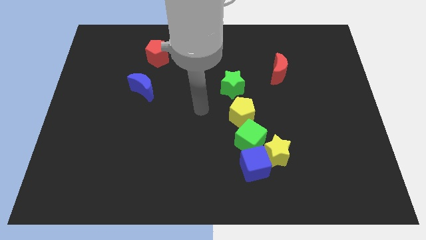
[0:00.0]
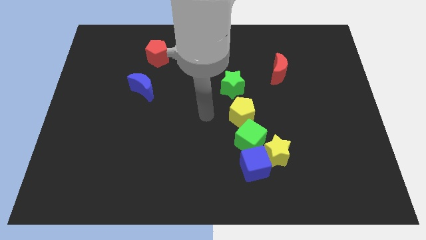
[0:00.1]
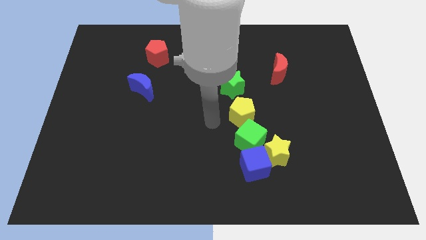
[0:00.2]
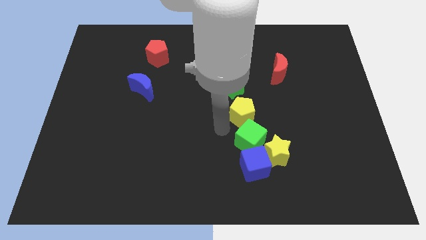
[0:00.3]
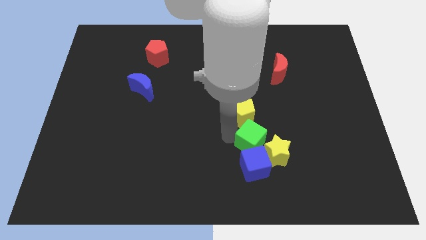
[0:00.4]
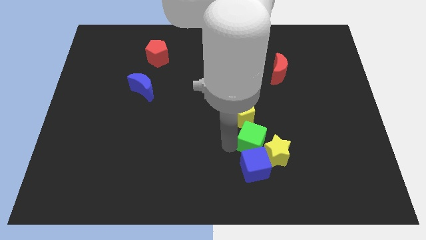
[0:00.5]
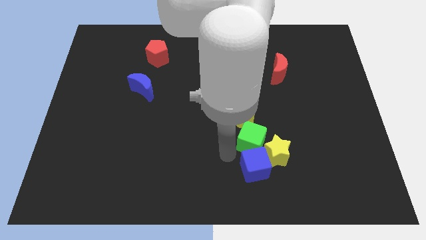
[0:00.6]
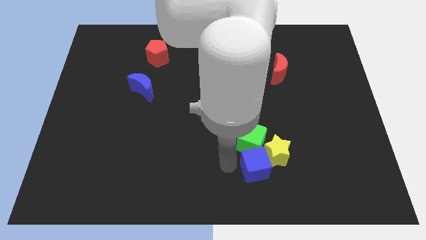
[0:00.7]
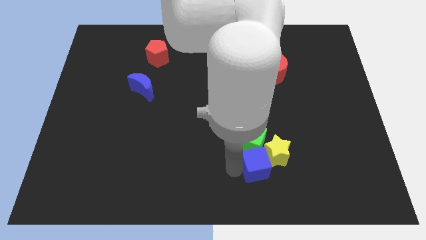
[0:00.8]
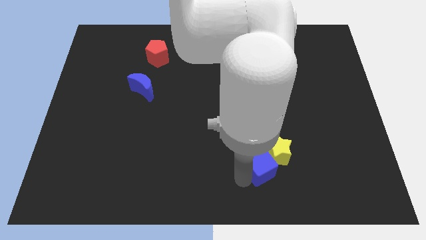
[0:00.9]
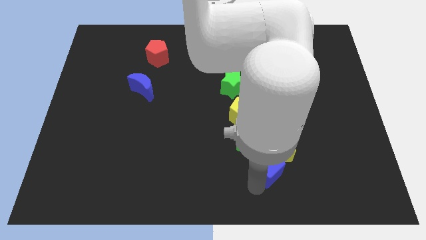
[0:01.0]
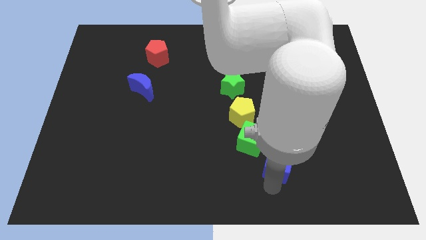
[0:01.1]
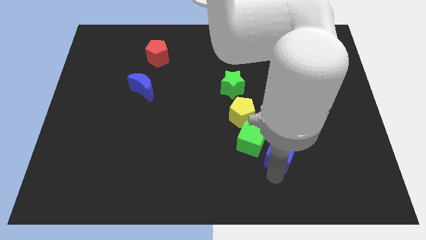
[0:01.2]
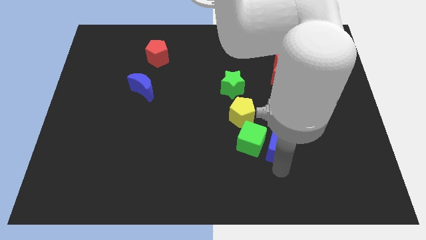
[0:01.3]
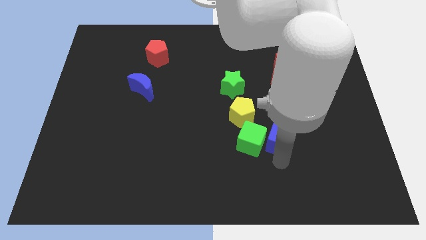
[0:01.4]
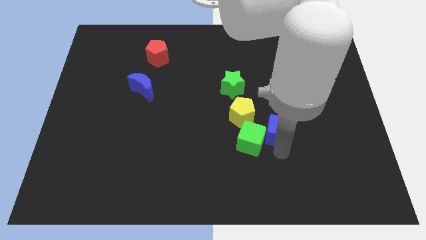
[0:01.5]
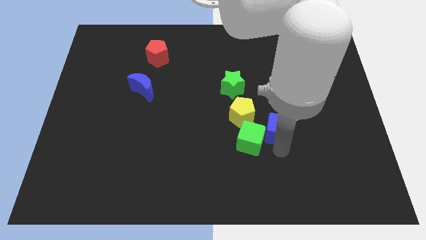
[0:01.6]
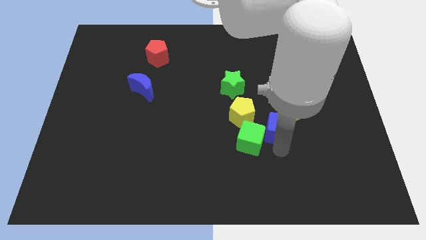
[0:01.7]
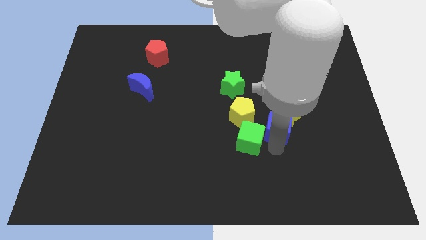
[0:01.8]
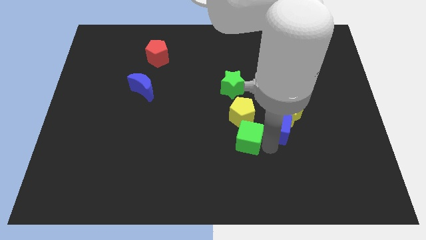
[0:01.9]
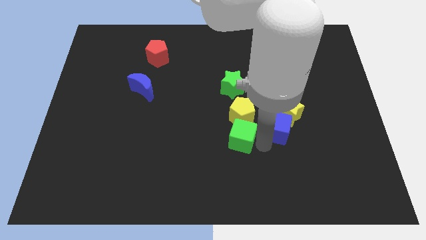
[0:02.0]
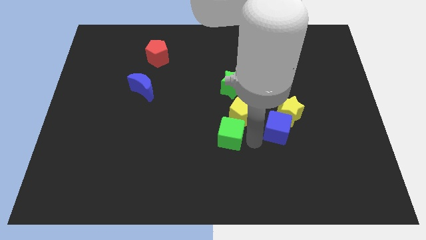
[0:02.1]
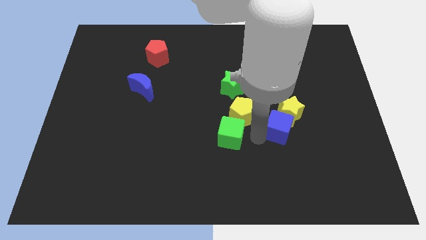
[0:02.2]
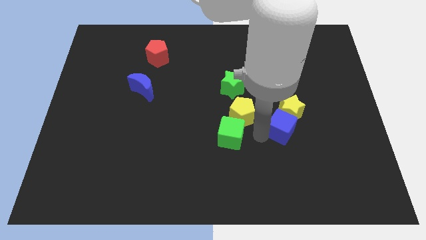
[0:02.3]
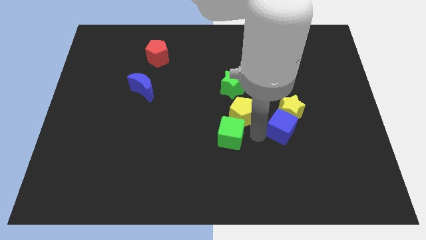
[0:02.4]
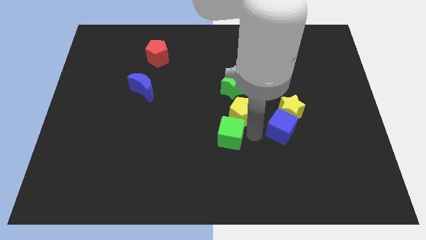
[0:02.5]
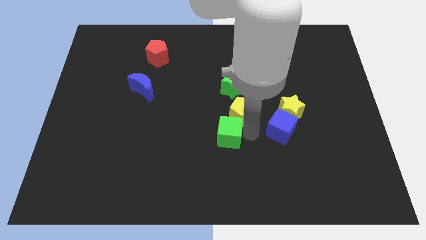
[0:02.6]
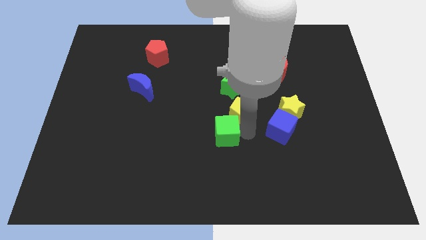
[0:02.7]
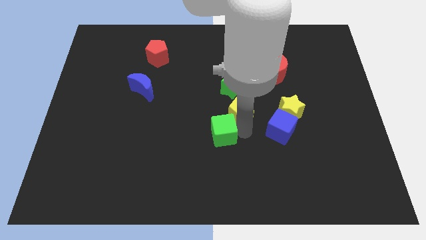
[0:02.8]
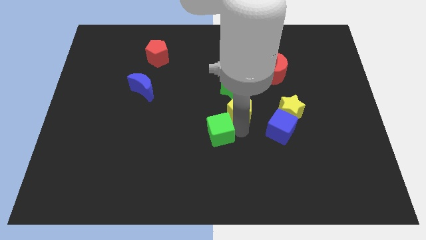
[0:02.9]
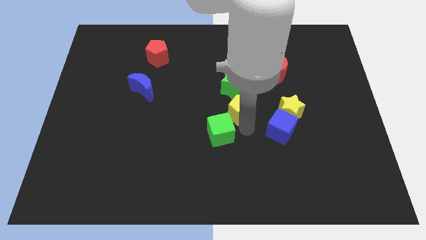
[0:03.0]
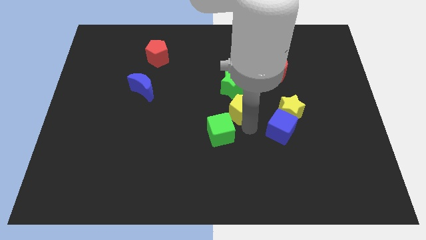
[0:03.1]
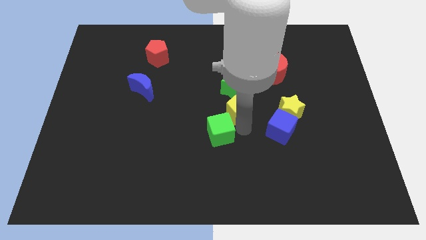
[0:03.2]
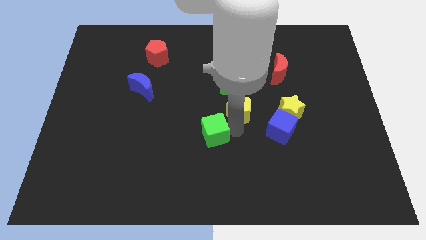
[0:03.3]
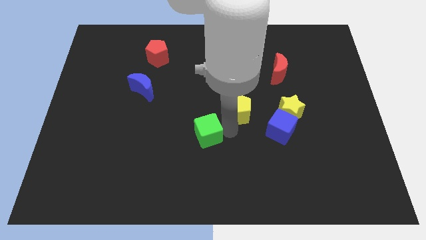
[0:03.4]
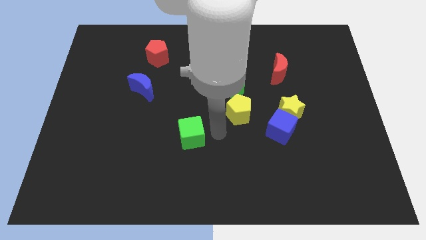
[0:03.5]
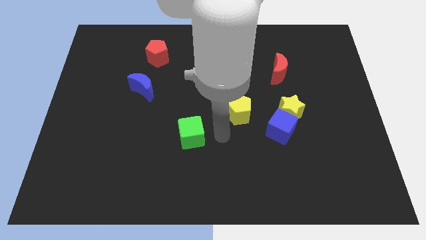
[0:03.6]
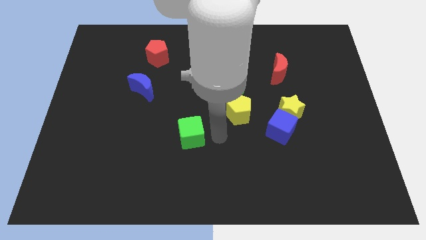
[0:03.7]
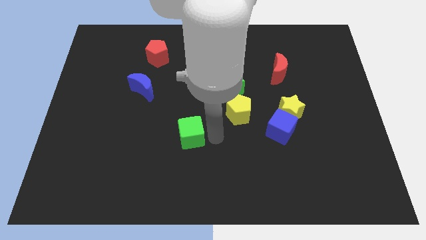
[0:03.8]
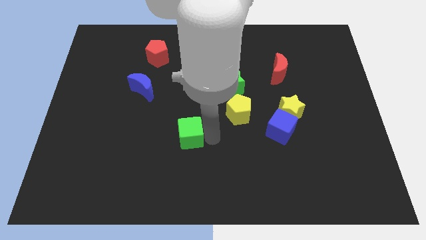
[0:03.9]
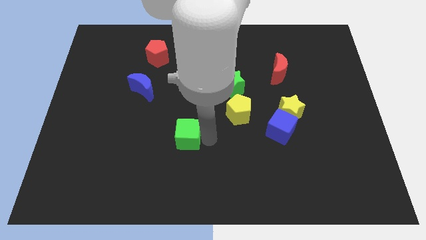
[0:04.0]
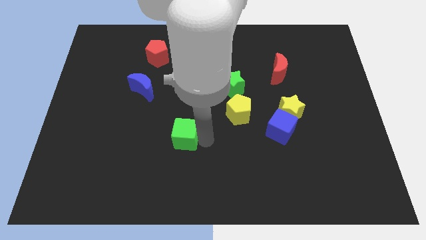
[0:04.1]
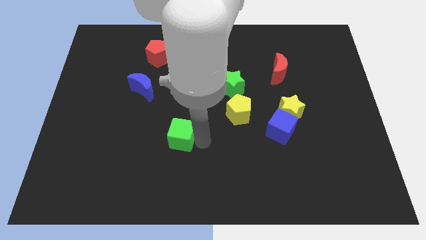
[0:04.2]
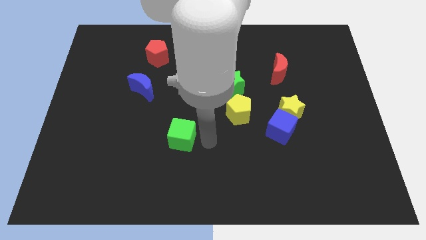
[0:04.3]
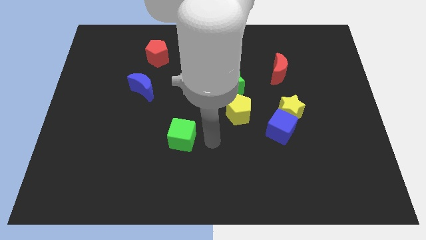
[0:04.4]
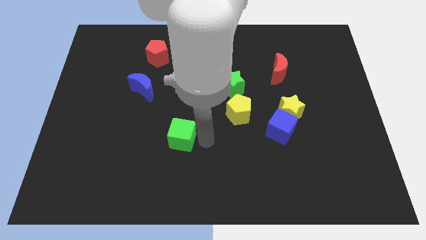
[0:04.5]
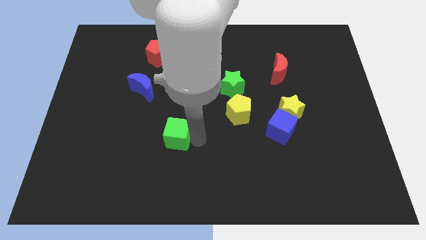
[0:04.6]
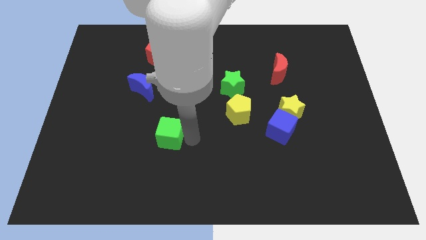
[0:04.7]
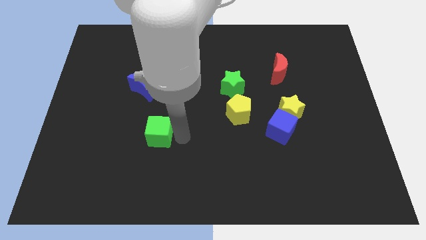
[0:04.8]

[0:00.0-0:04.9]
move the green cube left

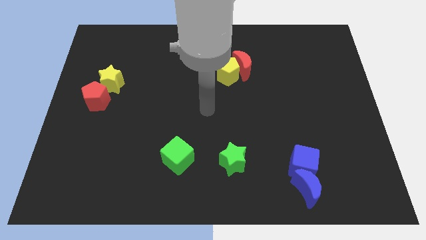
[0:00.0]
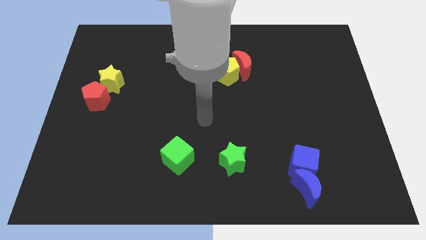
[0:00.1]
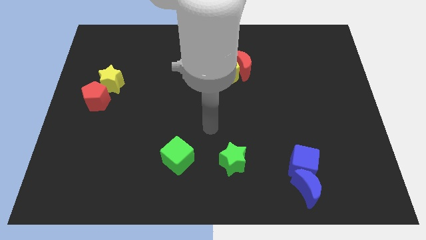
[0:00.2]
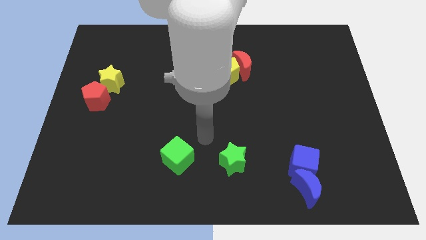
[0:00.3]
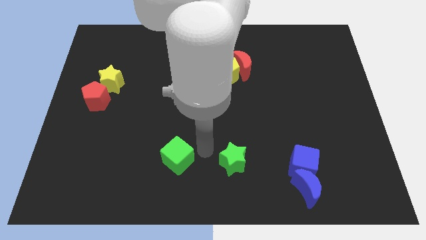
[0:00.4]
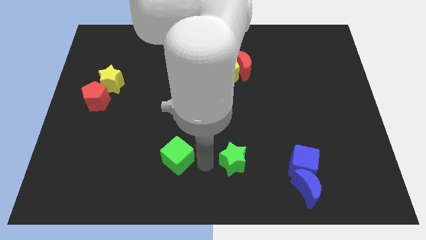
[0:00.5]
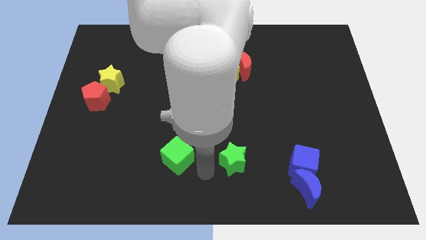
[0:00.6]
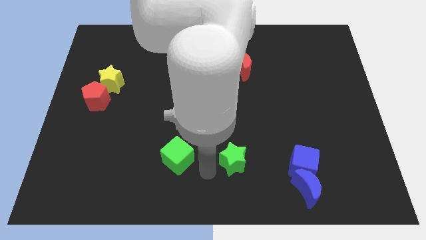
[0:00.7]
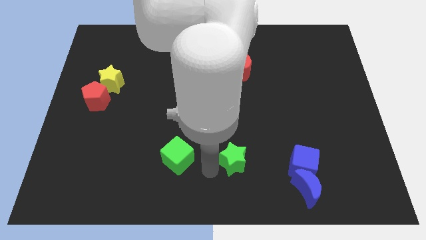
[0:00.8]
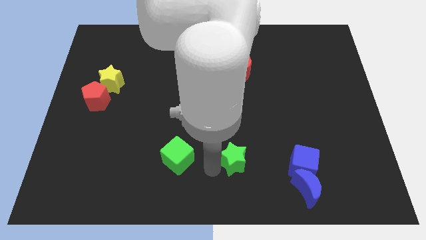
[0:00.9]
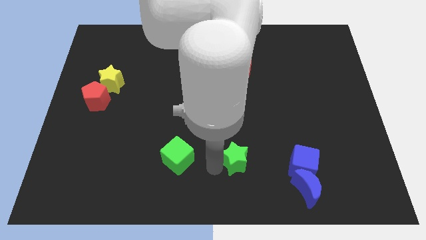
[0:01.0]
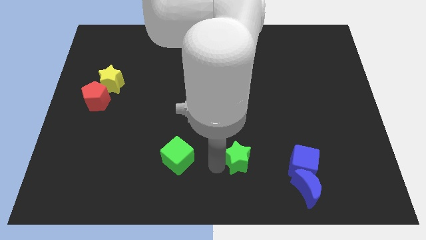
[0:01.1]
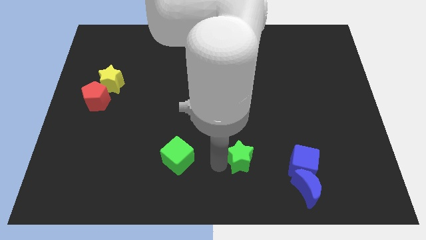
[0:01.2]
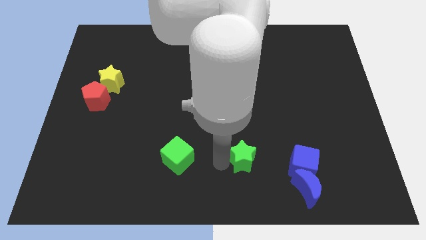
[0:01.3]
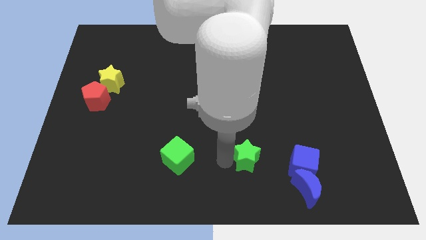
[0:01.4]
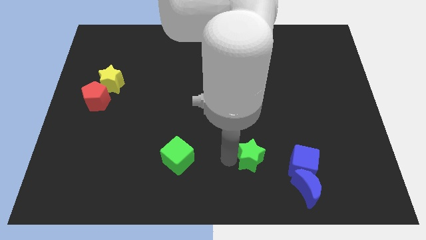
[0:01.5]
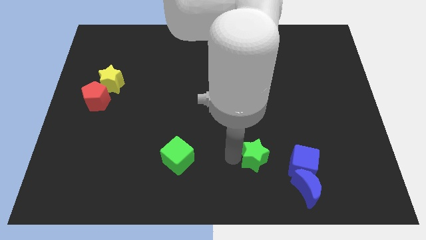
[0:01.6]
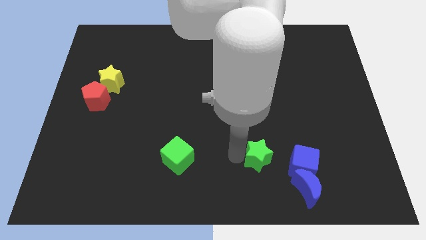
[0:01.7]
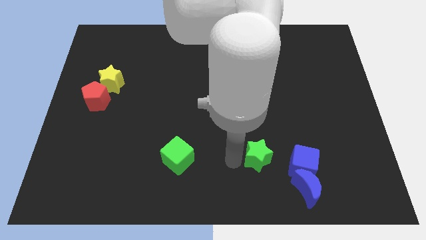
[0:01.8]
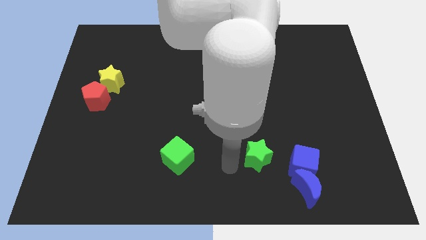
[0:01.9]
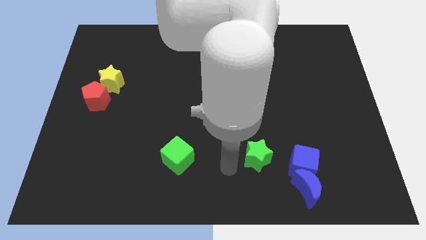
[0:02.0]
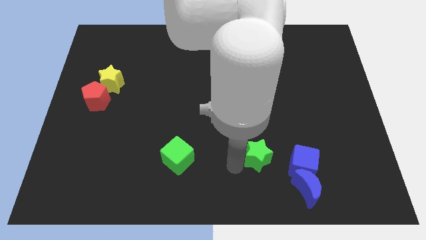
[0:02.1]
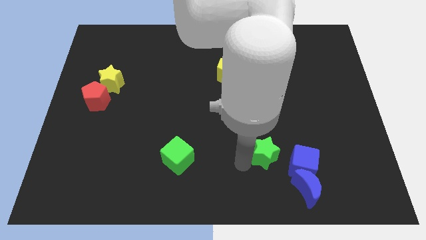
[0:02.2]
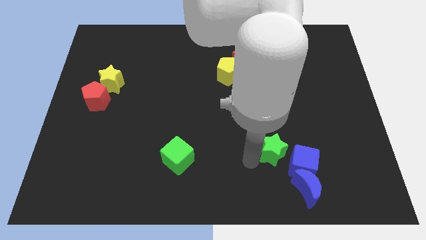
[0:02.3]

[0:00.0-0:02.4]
slide the green star right a little

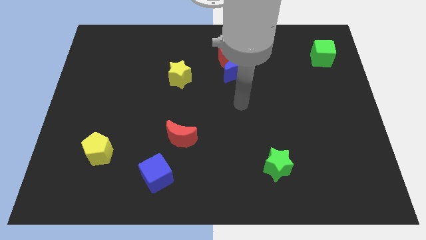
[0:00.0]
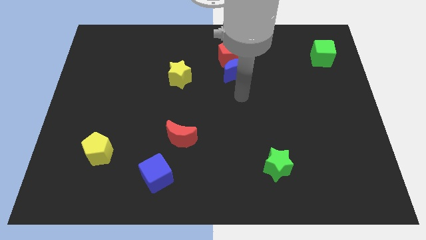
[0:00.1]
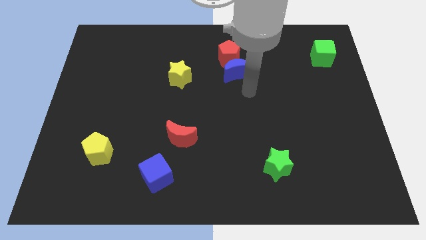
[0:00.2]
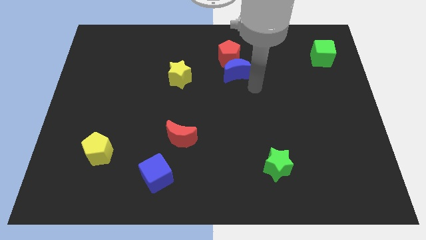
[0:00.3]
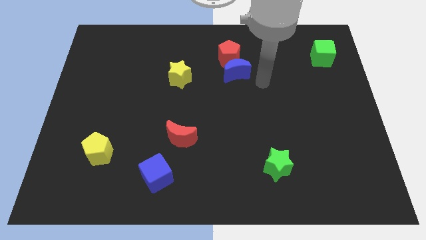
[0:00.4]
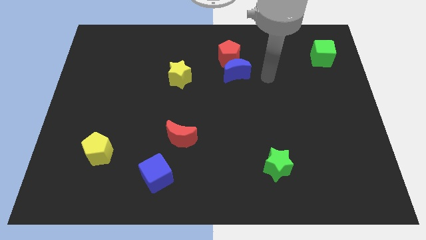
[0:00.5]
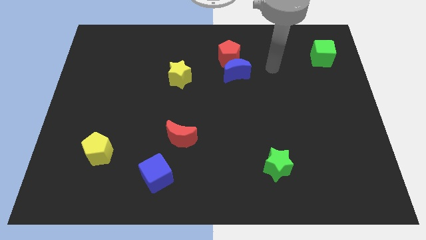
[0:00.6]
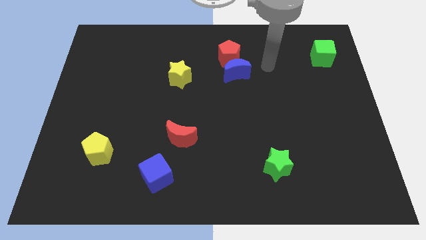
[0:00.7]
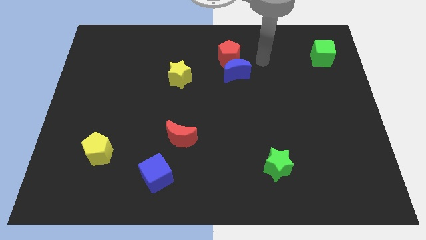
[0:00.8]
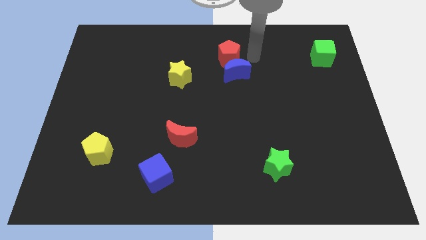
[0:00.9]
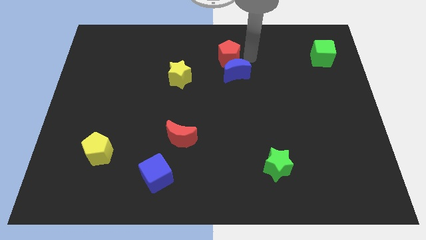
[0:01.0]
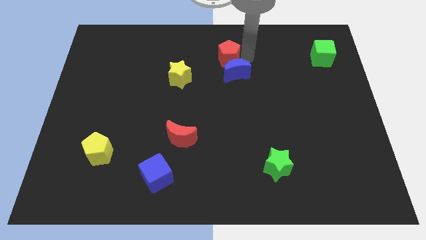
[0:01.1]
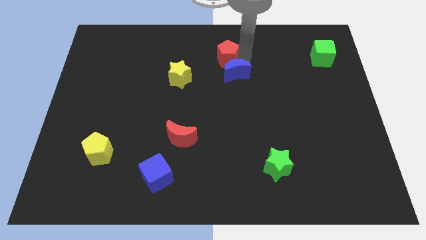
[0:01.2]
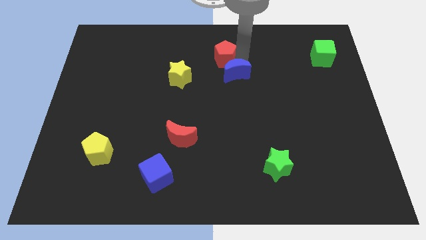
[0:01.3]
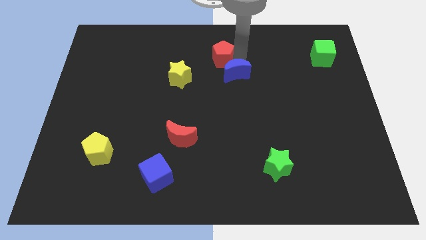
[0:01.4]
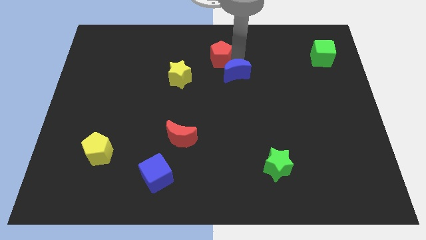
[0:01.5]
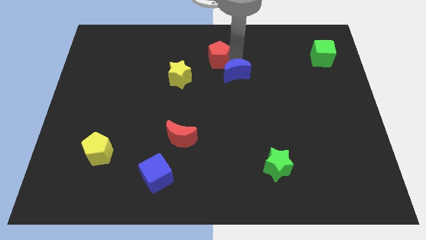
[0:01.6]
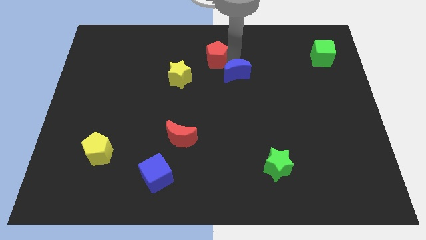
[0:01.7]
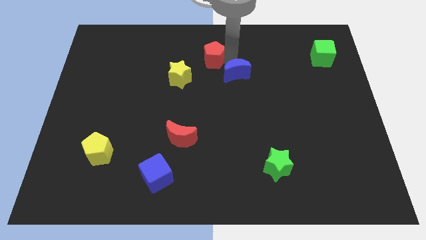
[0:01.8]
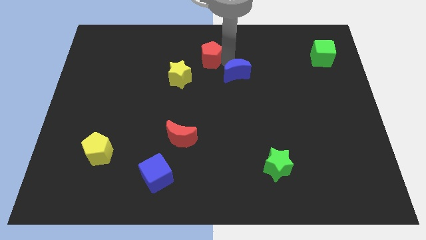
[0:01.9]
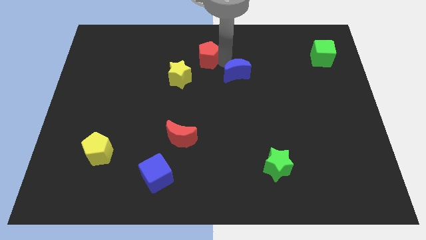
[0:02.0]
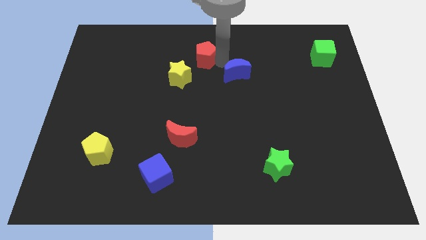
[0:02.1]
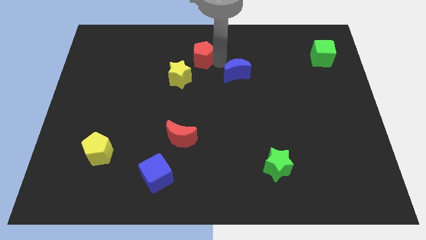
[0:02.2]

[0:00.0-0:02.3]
push the red pentagon slightly to the left
